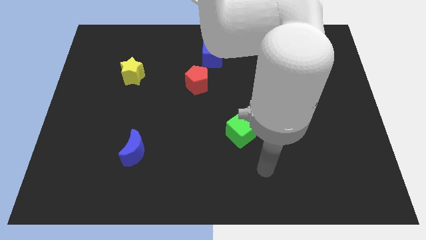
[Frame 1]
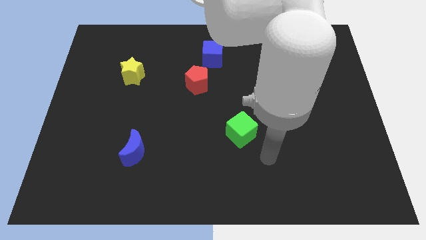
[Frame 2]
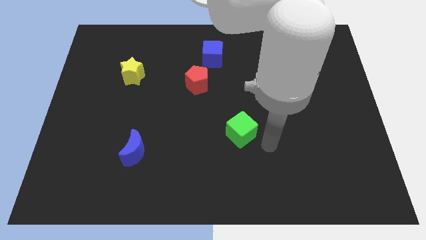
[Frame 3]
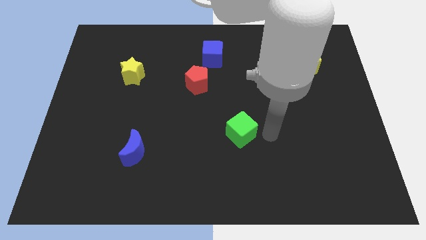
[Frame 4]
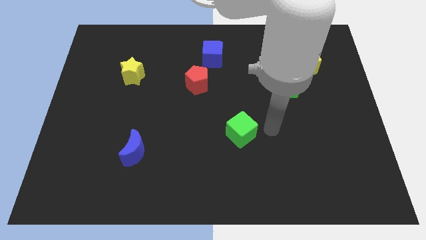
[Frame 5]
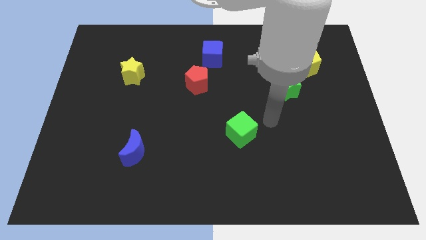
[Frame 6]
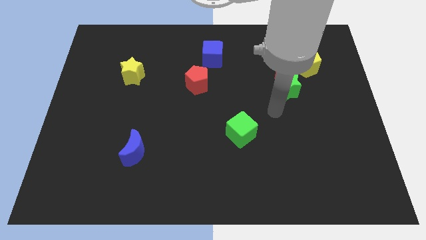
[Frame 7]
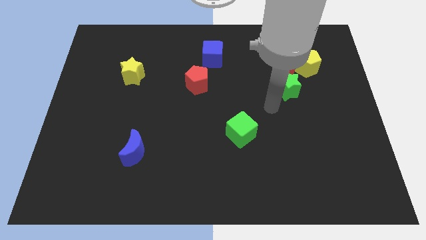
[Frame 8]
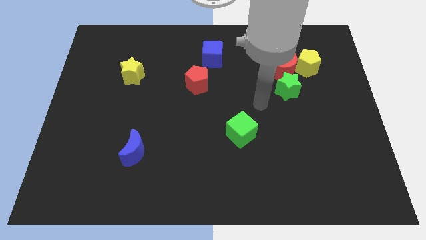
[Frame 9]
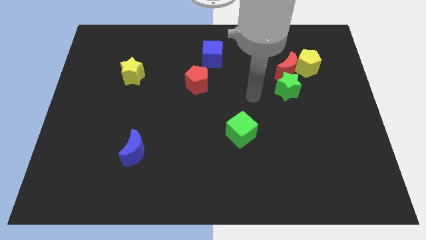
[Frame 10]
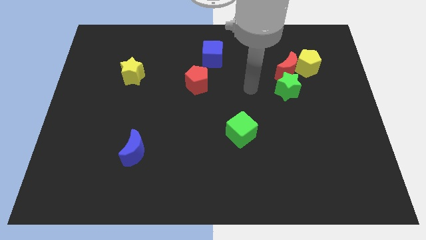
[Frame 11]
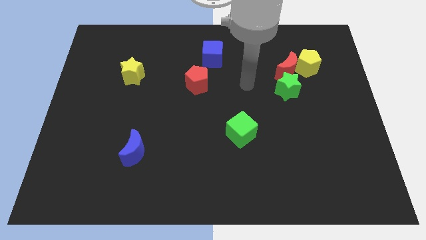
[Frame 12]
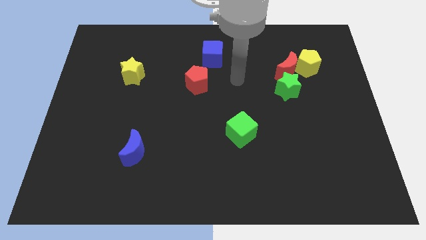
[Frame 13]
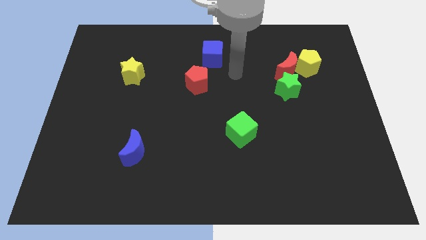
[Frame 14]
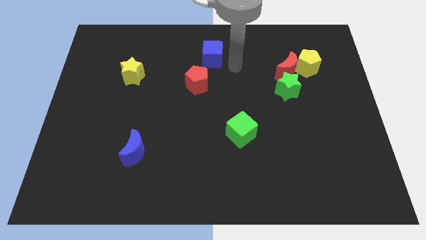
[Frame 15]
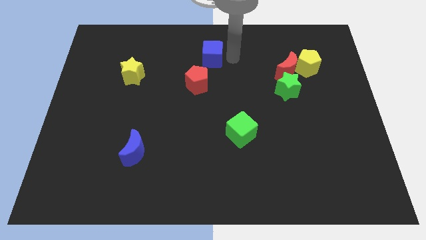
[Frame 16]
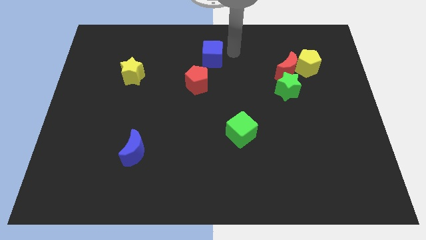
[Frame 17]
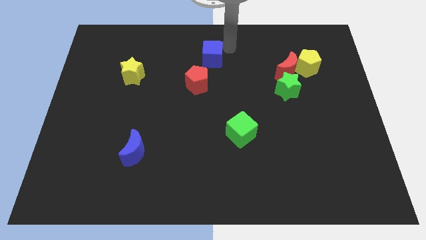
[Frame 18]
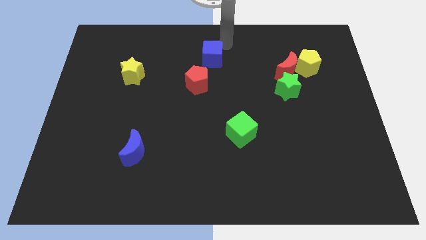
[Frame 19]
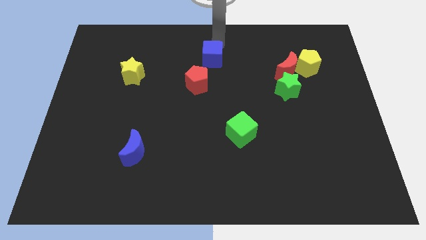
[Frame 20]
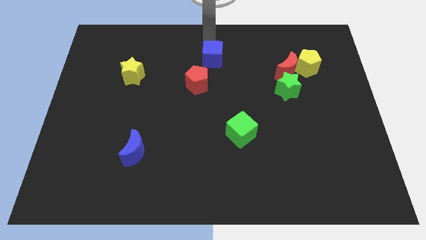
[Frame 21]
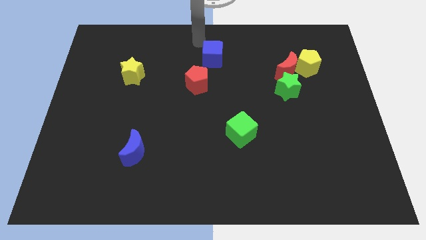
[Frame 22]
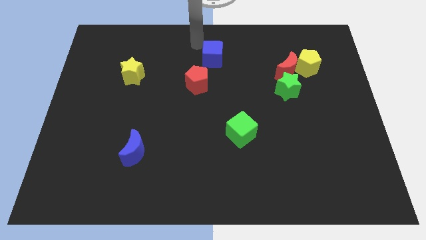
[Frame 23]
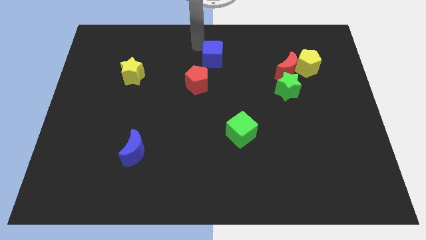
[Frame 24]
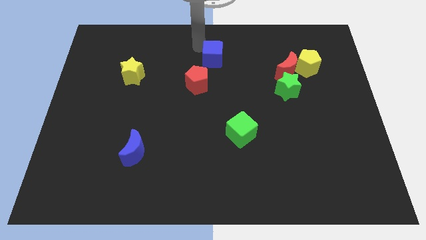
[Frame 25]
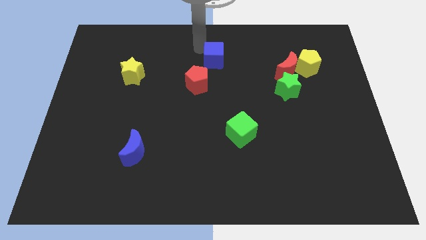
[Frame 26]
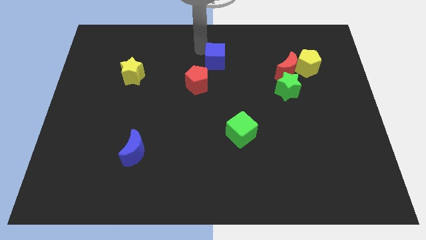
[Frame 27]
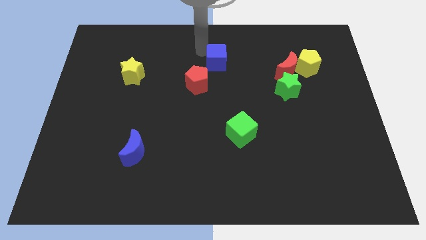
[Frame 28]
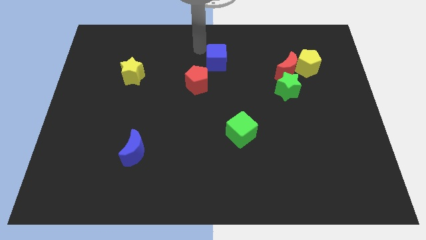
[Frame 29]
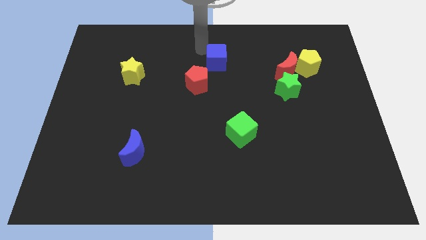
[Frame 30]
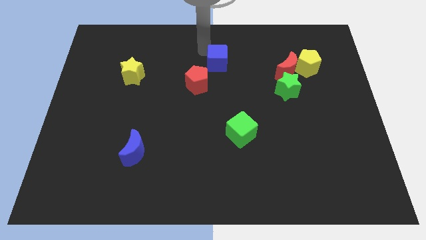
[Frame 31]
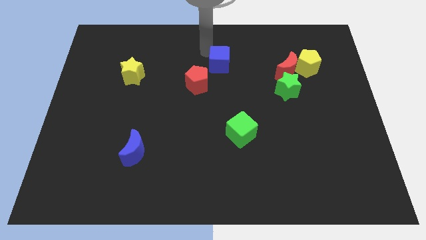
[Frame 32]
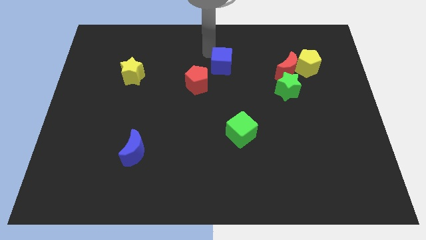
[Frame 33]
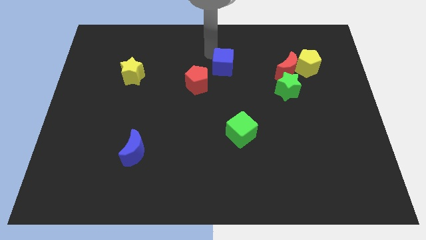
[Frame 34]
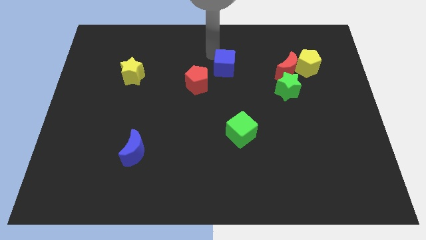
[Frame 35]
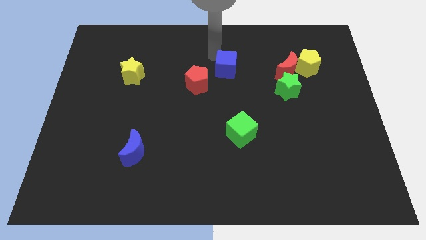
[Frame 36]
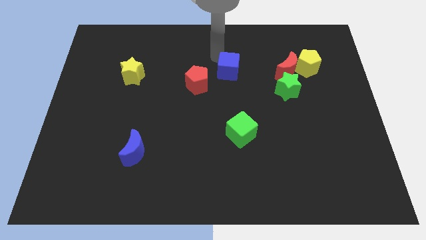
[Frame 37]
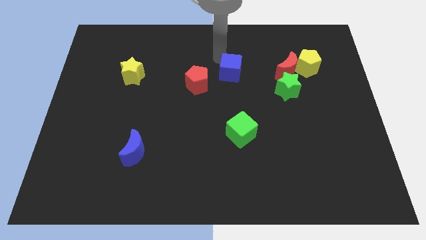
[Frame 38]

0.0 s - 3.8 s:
move the blue cube downwards and then to the right slightly

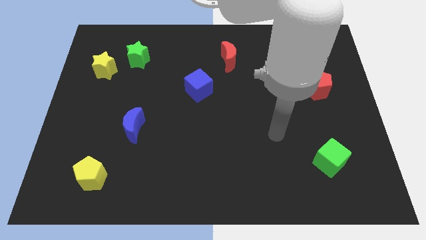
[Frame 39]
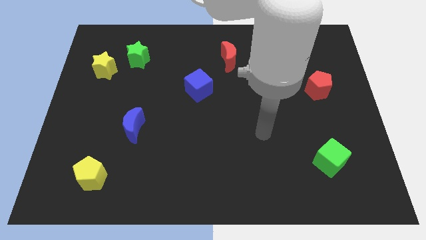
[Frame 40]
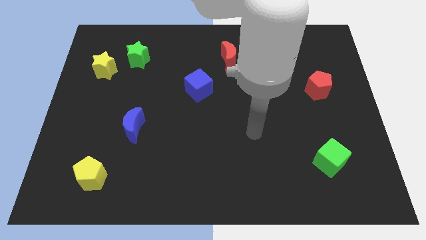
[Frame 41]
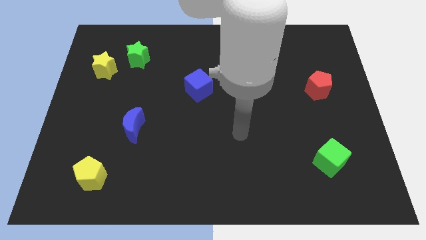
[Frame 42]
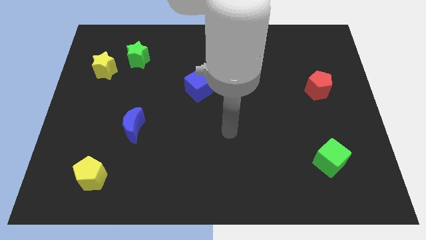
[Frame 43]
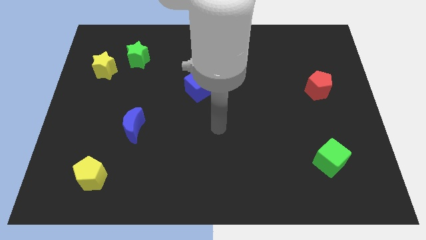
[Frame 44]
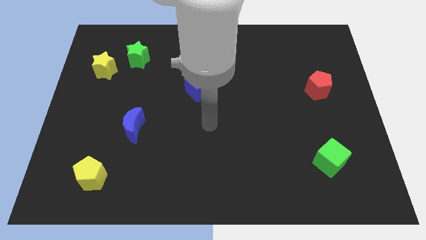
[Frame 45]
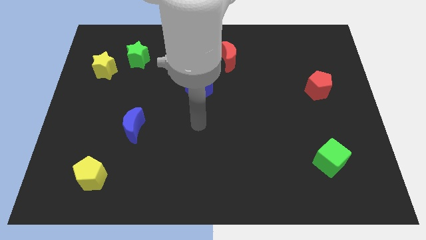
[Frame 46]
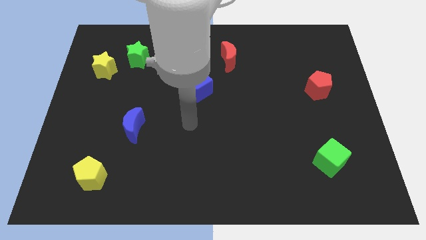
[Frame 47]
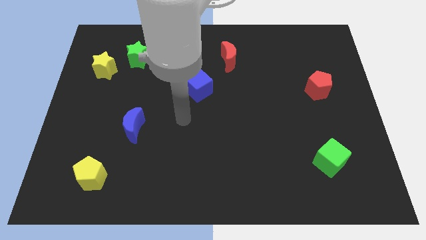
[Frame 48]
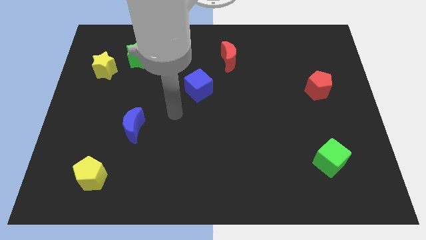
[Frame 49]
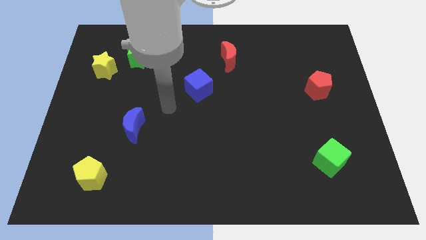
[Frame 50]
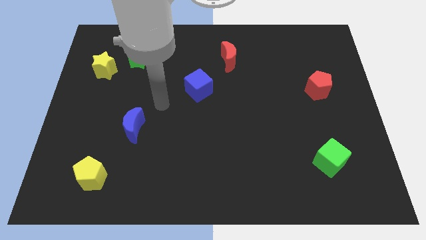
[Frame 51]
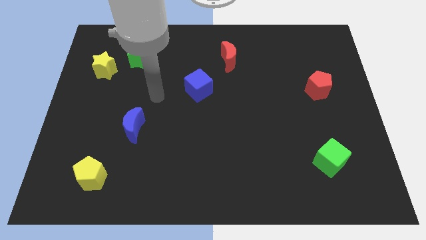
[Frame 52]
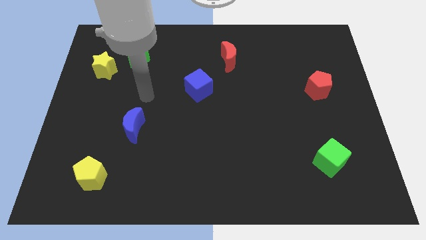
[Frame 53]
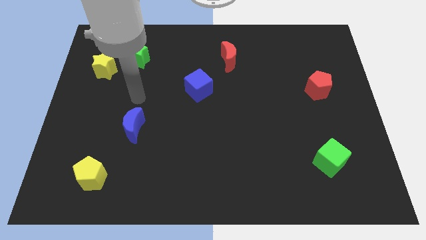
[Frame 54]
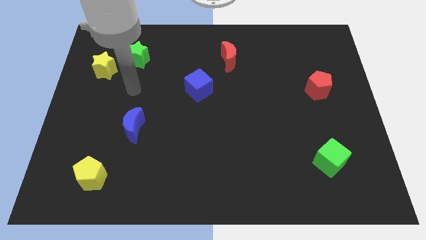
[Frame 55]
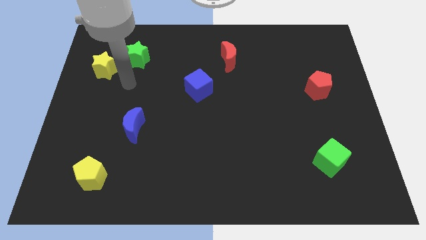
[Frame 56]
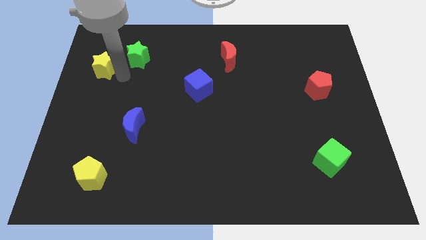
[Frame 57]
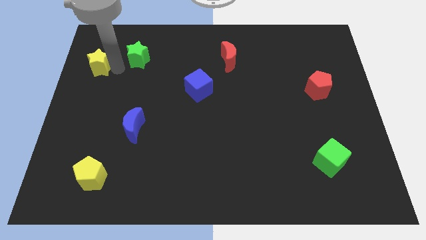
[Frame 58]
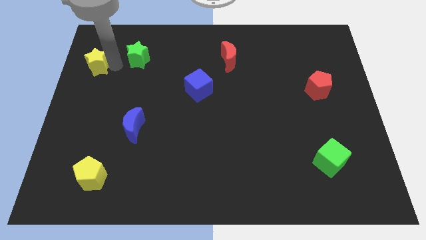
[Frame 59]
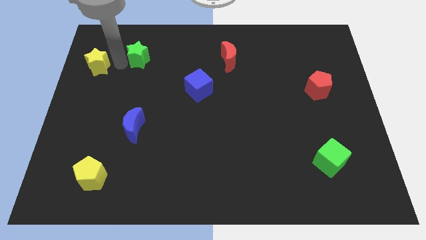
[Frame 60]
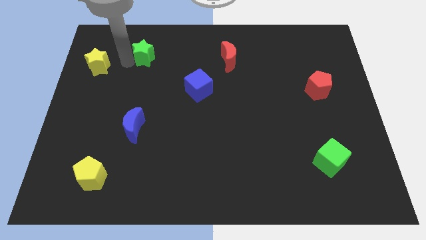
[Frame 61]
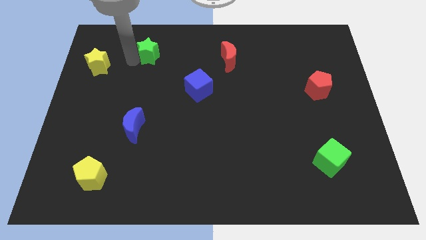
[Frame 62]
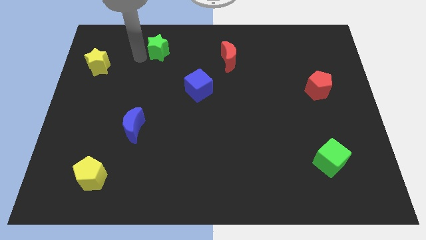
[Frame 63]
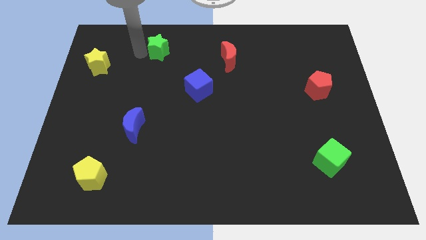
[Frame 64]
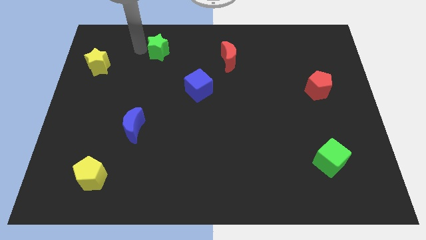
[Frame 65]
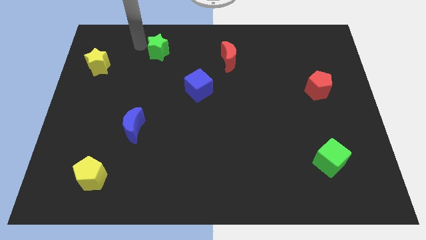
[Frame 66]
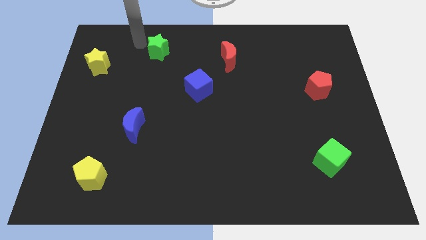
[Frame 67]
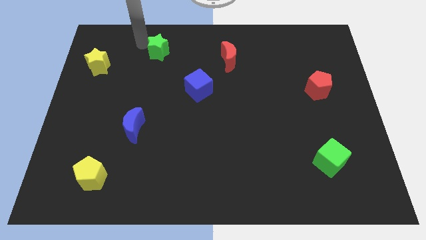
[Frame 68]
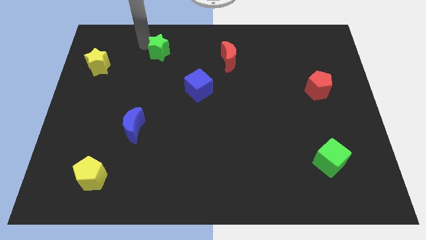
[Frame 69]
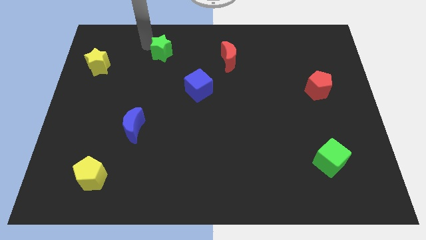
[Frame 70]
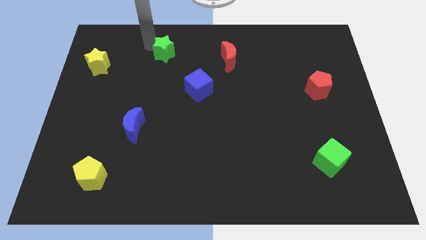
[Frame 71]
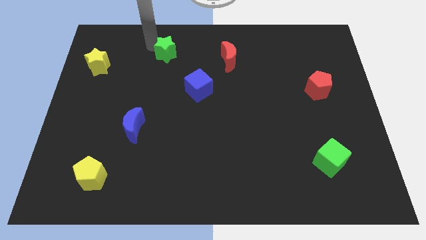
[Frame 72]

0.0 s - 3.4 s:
slightly slide the green star to the right

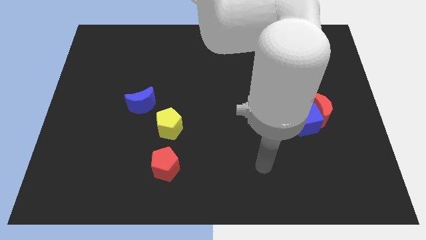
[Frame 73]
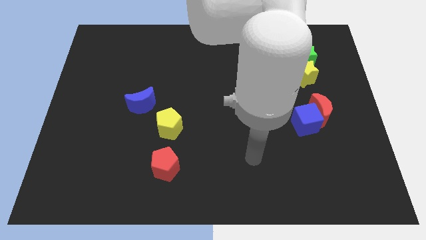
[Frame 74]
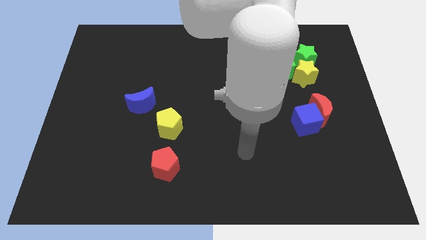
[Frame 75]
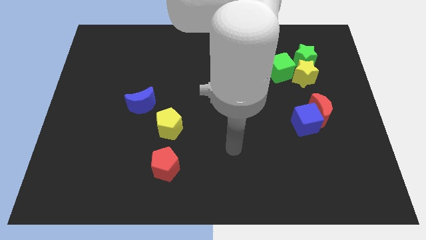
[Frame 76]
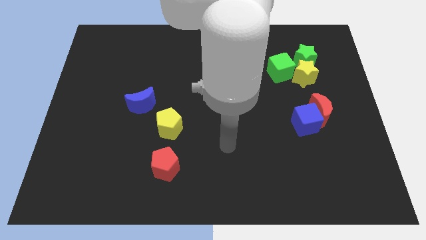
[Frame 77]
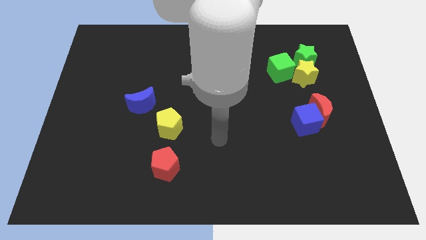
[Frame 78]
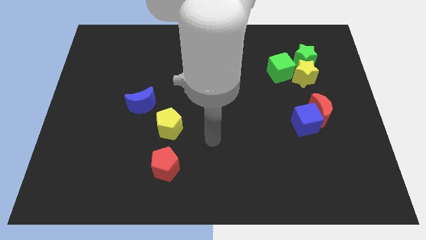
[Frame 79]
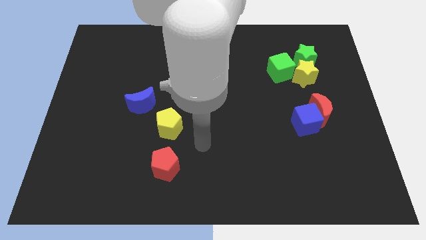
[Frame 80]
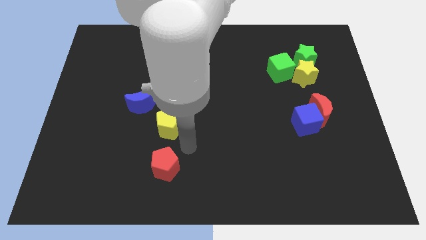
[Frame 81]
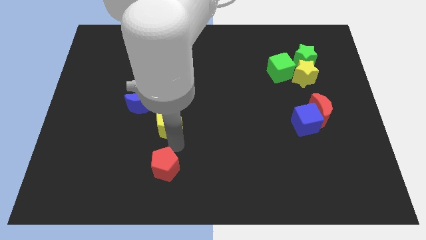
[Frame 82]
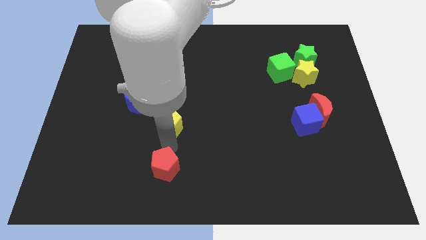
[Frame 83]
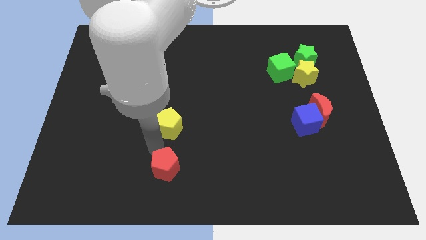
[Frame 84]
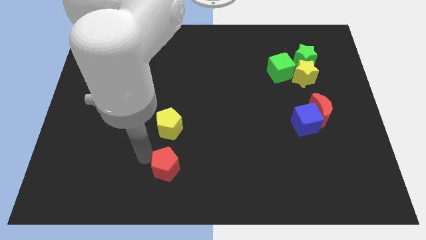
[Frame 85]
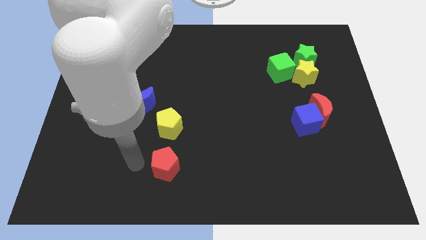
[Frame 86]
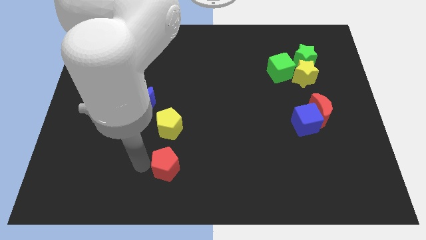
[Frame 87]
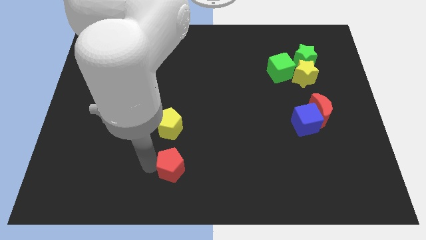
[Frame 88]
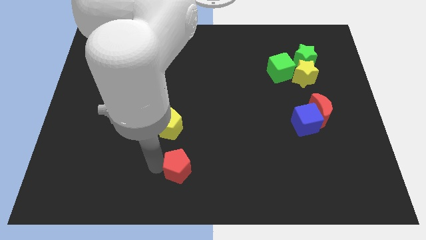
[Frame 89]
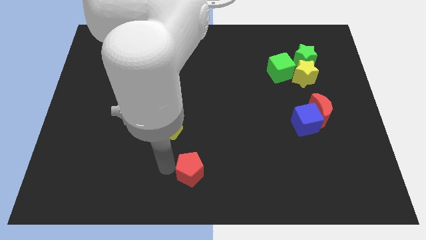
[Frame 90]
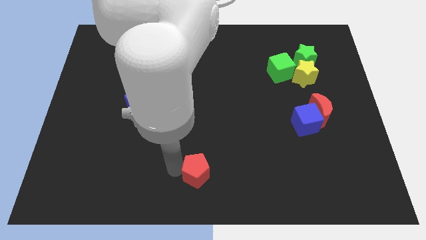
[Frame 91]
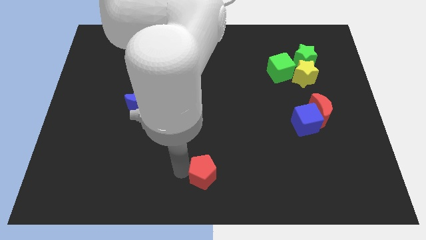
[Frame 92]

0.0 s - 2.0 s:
slightly move the red pentagon right
